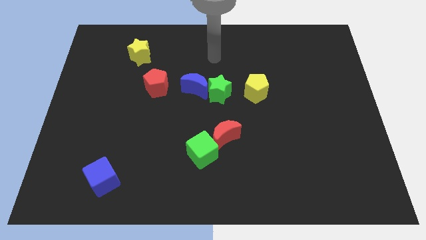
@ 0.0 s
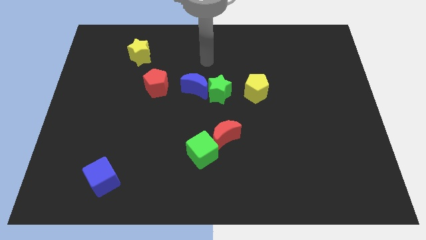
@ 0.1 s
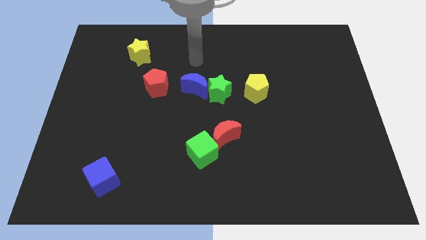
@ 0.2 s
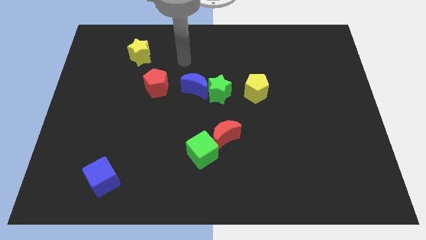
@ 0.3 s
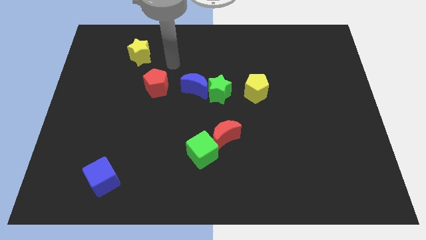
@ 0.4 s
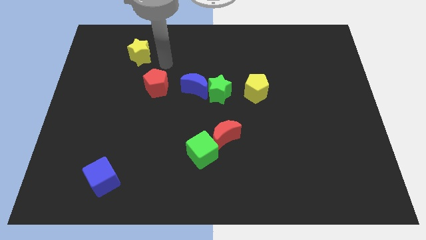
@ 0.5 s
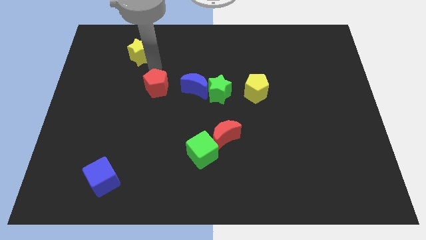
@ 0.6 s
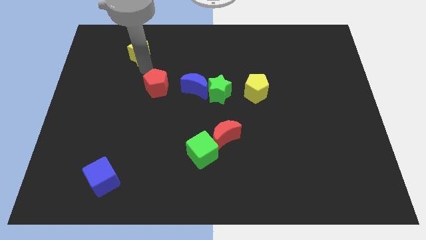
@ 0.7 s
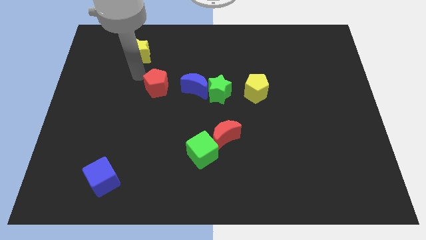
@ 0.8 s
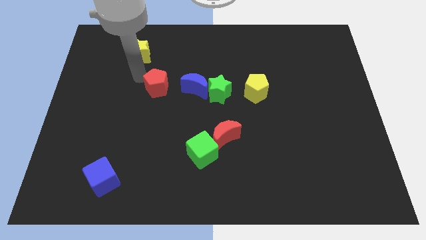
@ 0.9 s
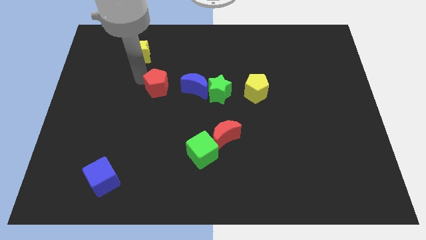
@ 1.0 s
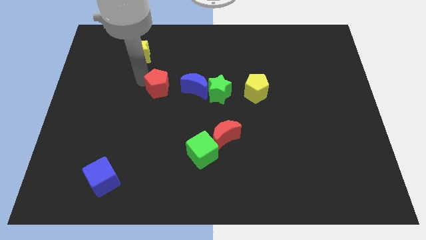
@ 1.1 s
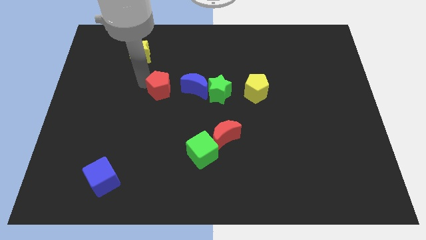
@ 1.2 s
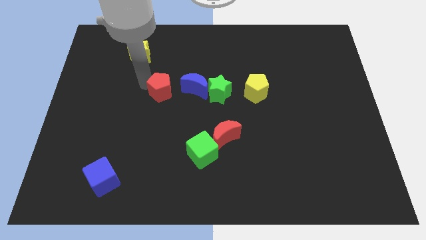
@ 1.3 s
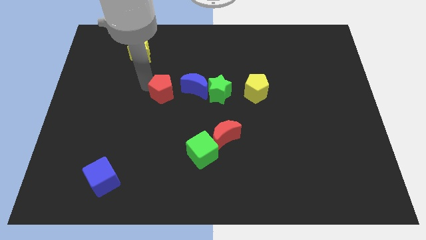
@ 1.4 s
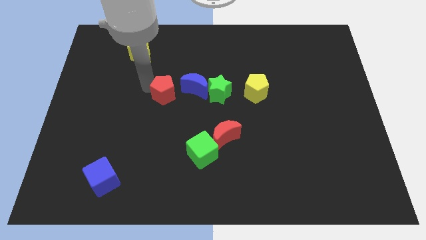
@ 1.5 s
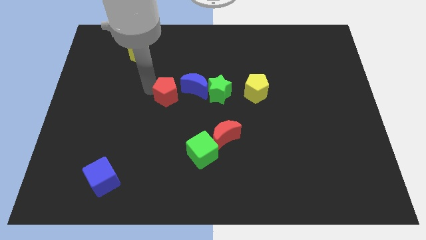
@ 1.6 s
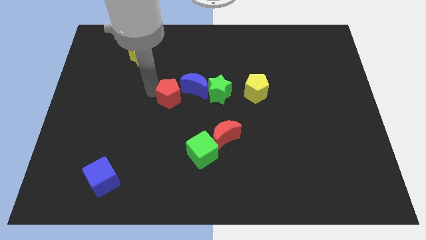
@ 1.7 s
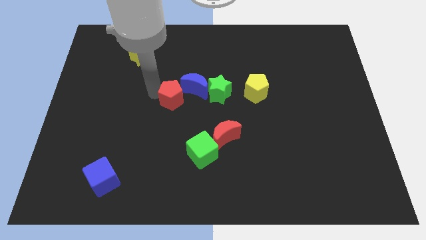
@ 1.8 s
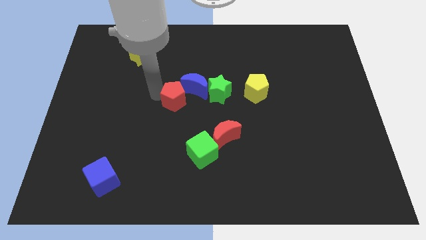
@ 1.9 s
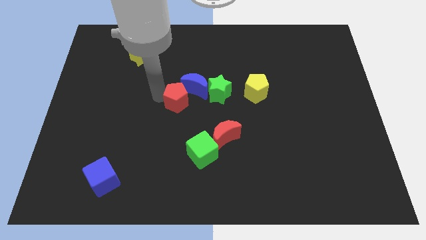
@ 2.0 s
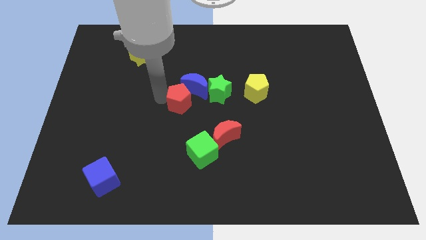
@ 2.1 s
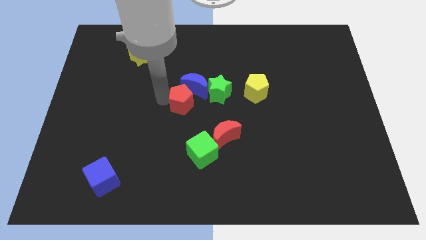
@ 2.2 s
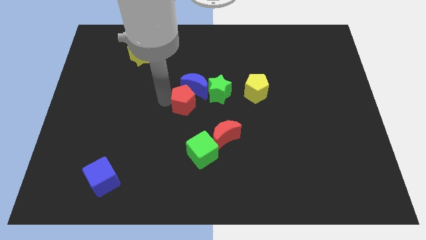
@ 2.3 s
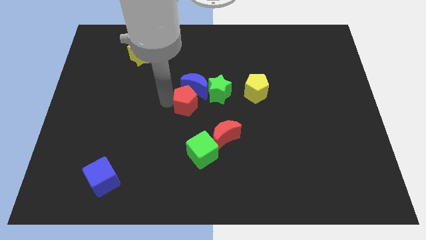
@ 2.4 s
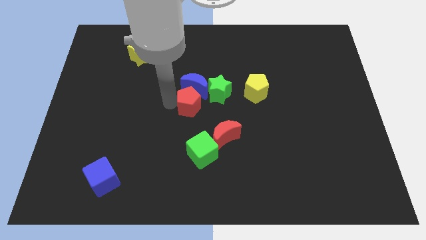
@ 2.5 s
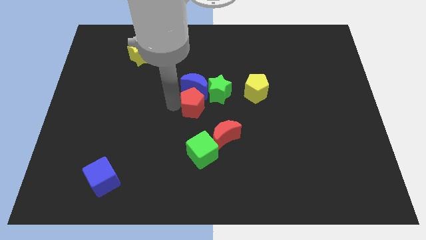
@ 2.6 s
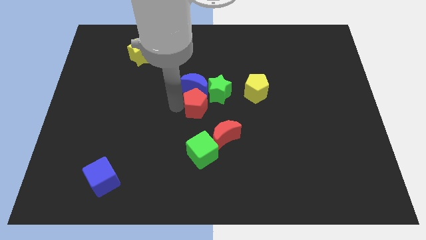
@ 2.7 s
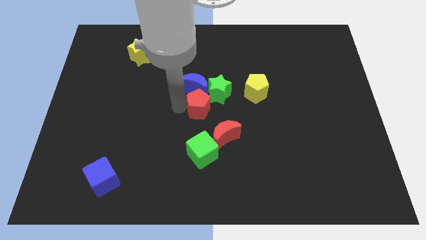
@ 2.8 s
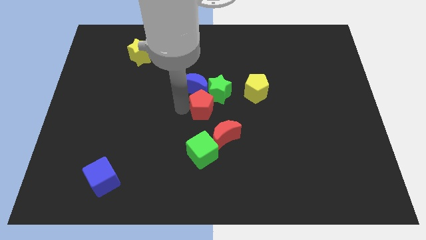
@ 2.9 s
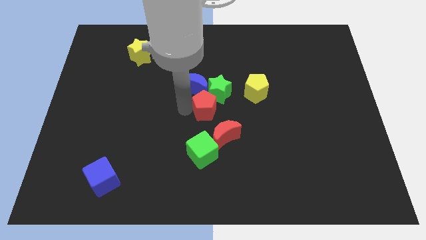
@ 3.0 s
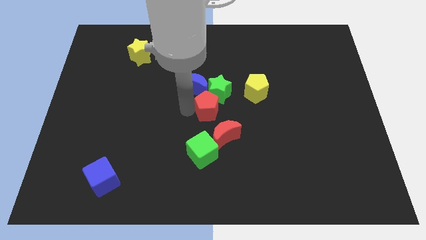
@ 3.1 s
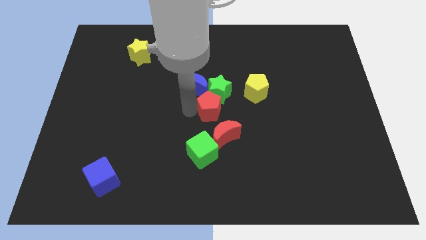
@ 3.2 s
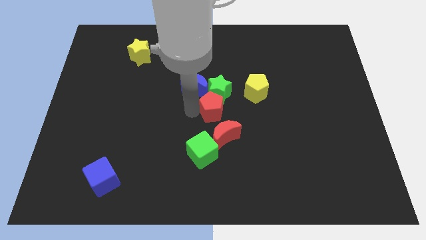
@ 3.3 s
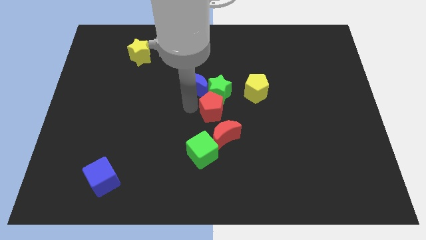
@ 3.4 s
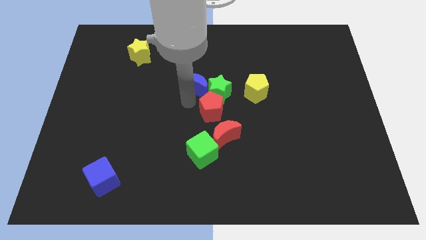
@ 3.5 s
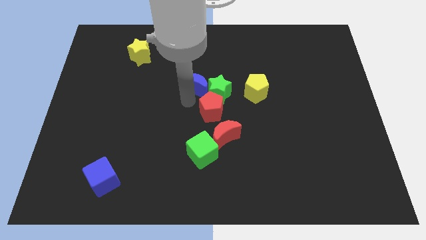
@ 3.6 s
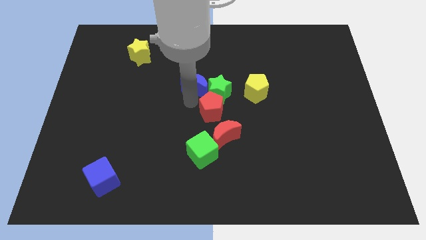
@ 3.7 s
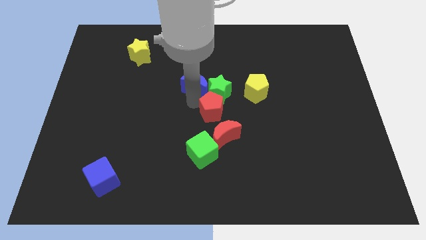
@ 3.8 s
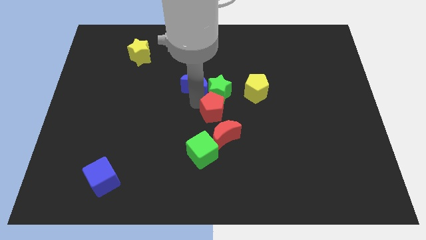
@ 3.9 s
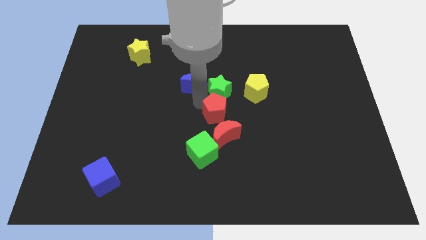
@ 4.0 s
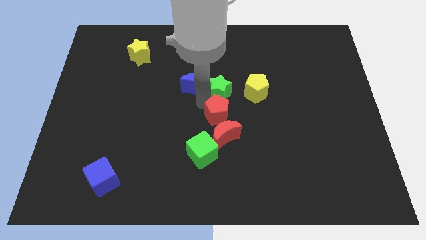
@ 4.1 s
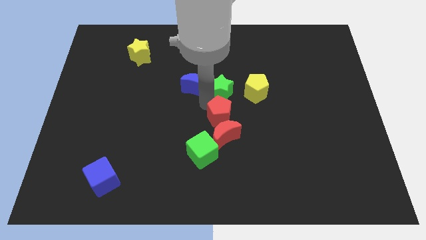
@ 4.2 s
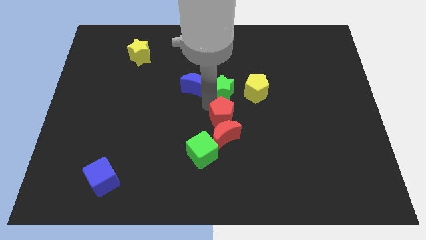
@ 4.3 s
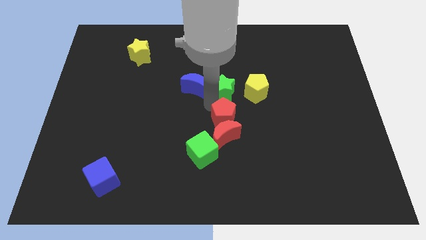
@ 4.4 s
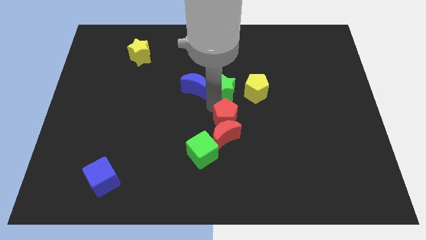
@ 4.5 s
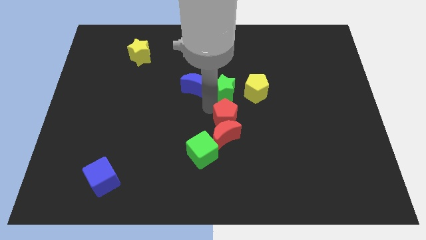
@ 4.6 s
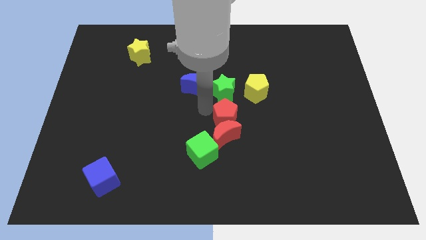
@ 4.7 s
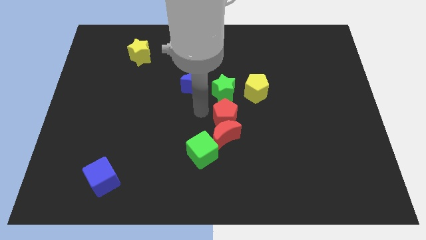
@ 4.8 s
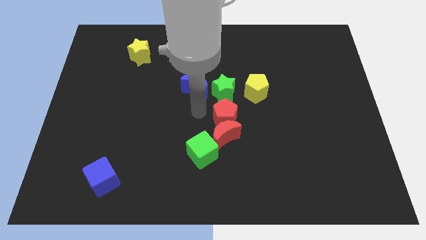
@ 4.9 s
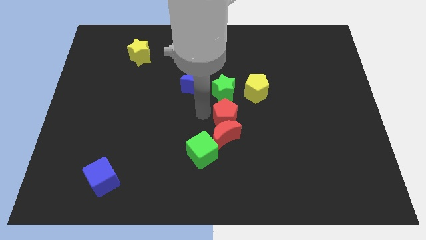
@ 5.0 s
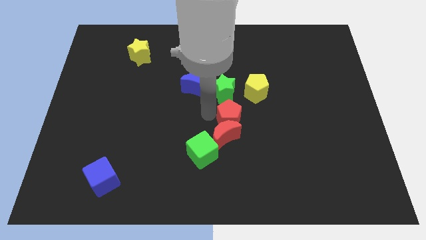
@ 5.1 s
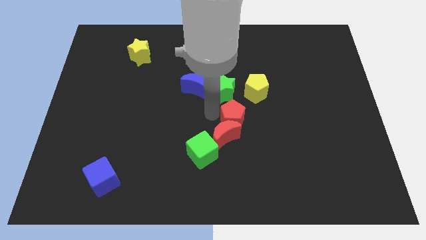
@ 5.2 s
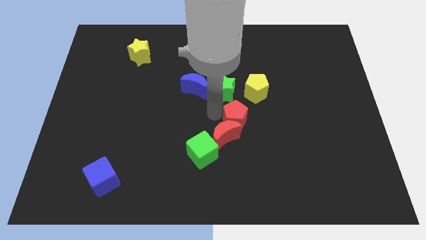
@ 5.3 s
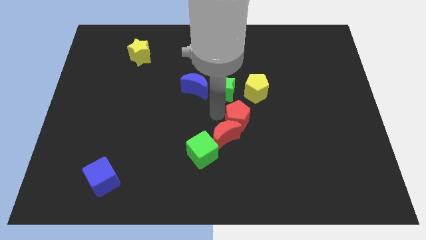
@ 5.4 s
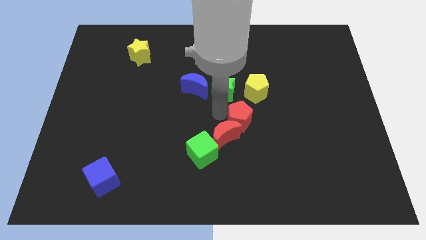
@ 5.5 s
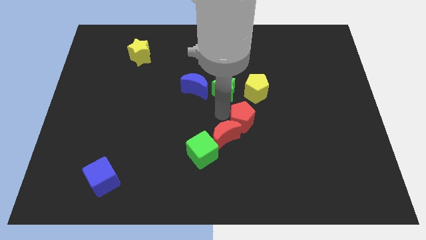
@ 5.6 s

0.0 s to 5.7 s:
push the red pentagon down and then right

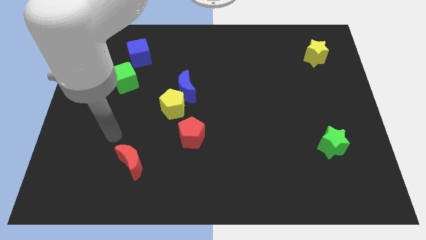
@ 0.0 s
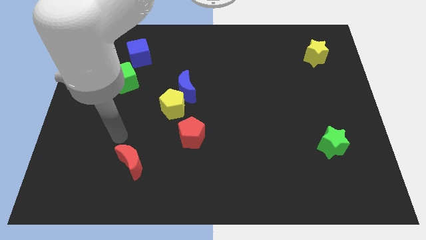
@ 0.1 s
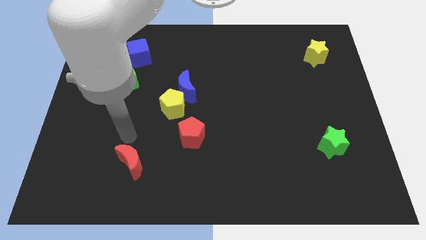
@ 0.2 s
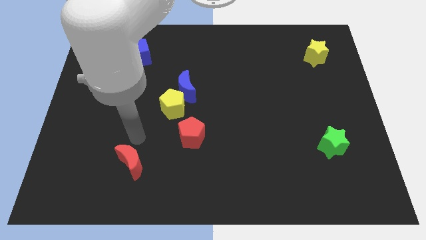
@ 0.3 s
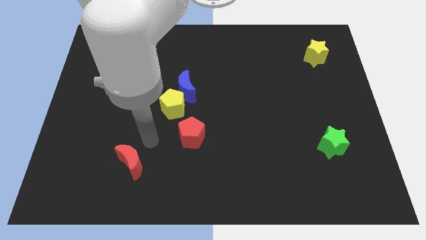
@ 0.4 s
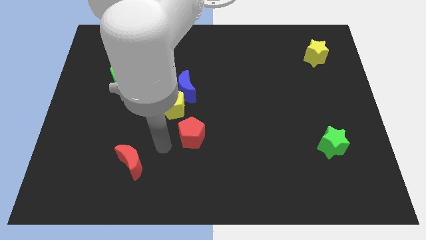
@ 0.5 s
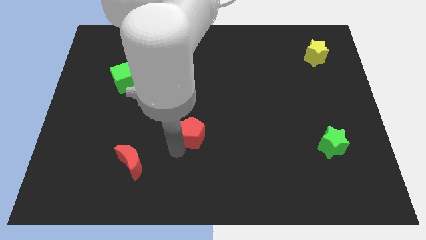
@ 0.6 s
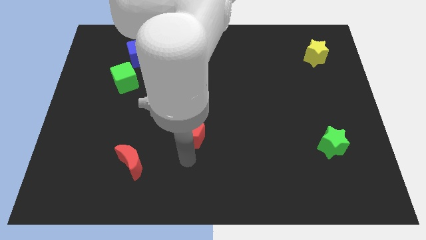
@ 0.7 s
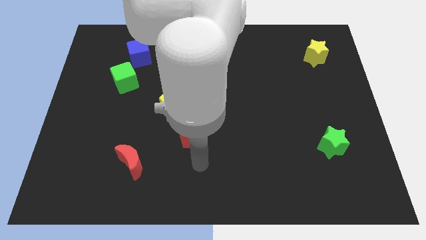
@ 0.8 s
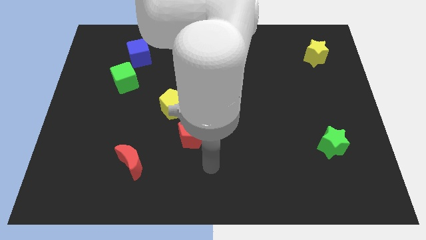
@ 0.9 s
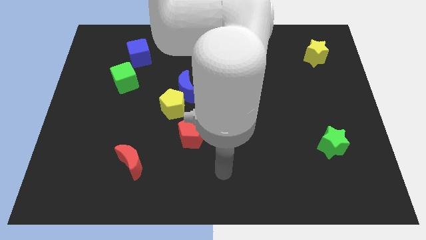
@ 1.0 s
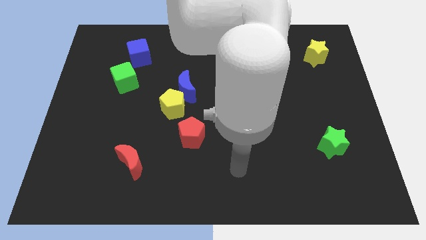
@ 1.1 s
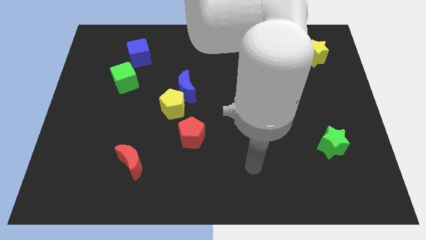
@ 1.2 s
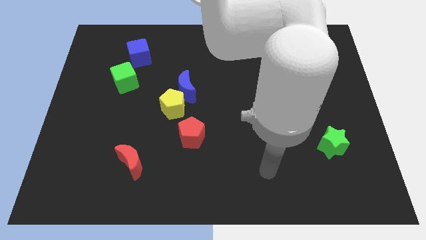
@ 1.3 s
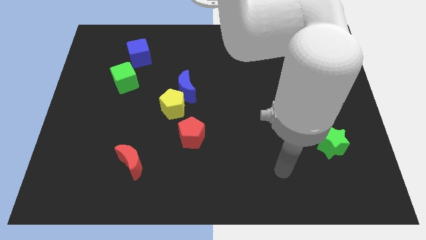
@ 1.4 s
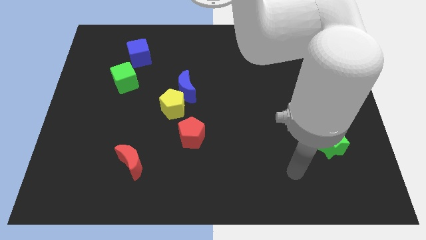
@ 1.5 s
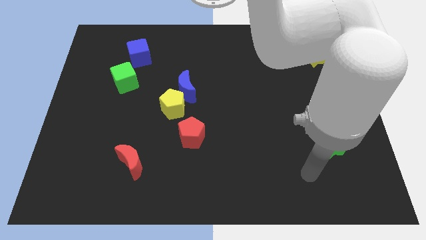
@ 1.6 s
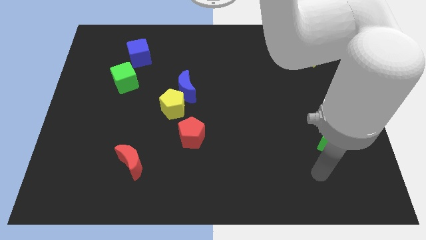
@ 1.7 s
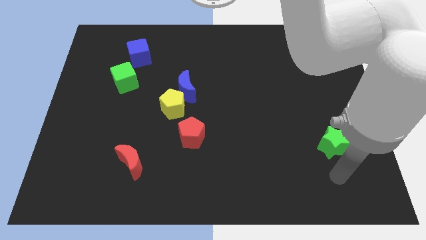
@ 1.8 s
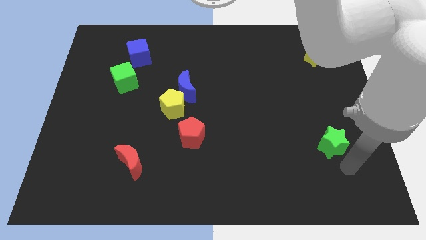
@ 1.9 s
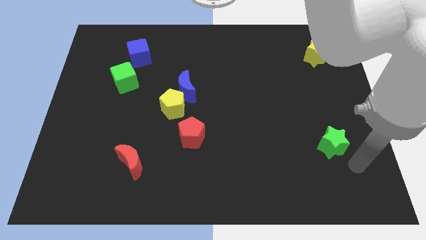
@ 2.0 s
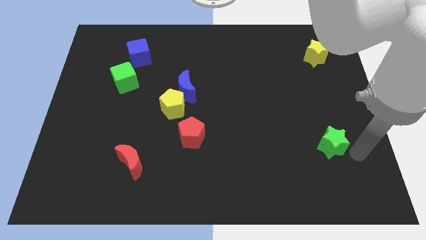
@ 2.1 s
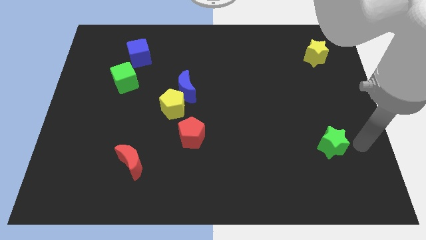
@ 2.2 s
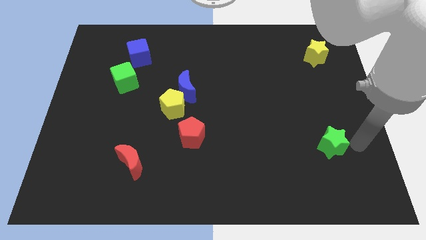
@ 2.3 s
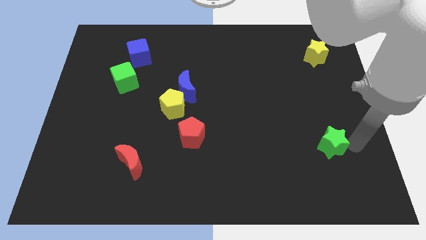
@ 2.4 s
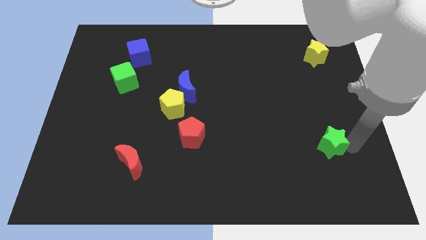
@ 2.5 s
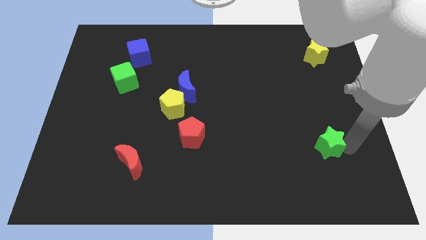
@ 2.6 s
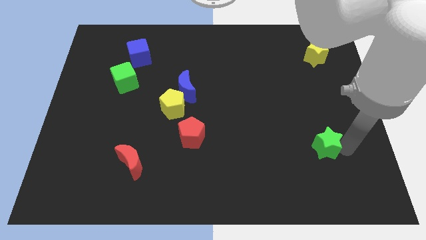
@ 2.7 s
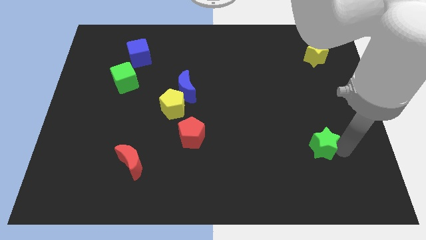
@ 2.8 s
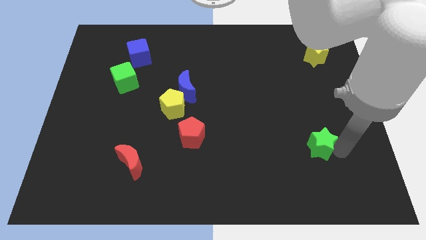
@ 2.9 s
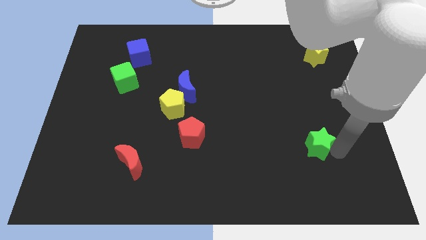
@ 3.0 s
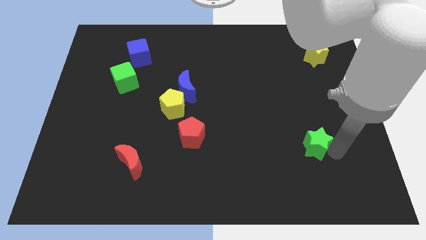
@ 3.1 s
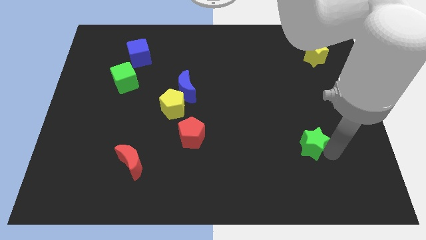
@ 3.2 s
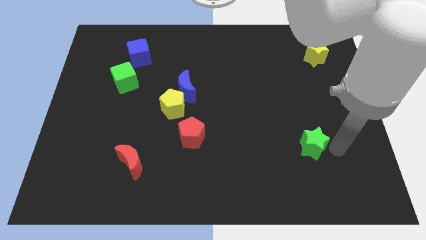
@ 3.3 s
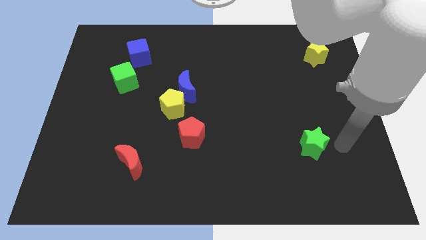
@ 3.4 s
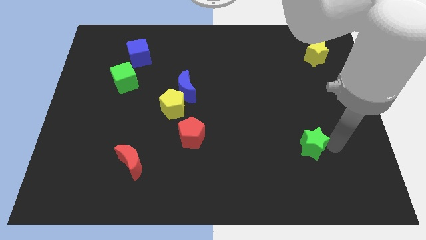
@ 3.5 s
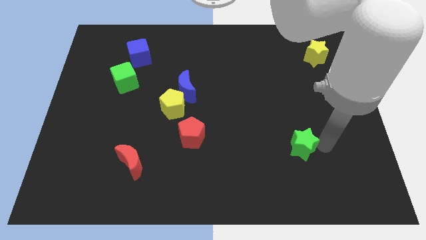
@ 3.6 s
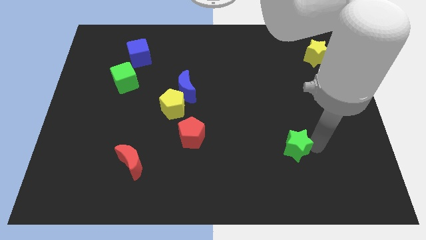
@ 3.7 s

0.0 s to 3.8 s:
slightly push the green star left
